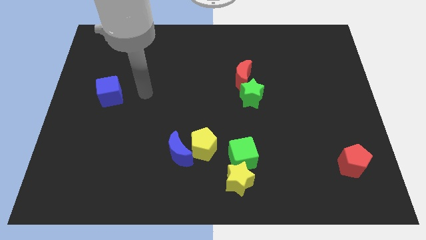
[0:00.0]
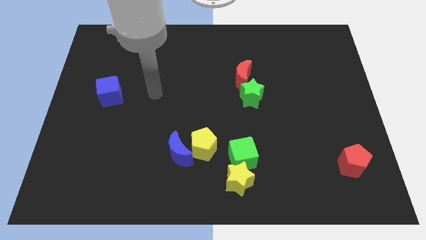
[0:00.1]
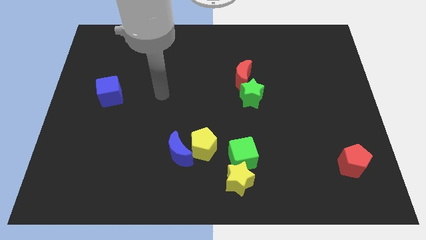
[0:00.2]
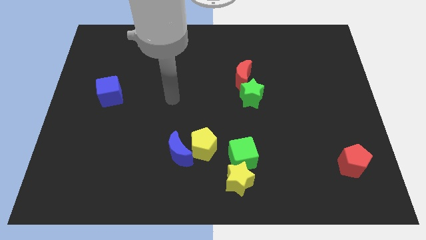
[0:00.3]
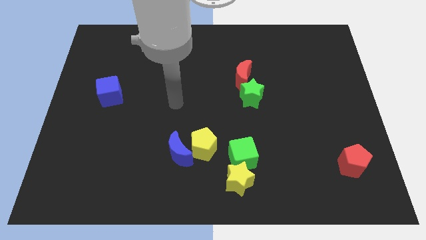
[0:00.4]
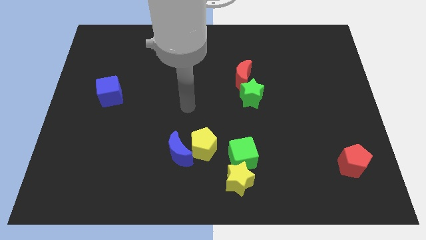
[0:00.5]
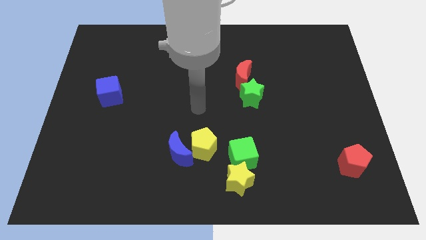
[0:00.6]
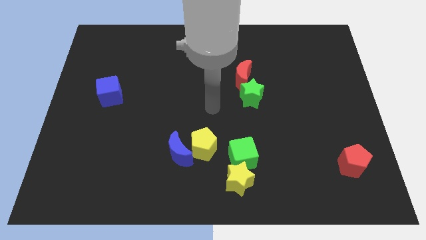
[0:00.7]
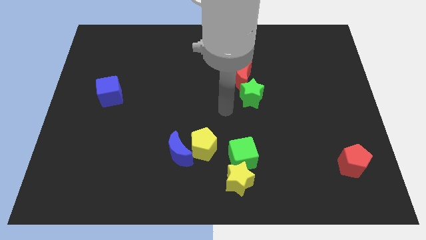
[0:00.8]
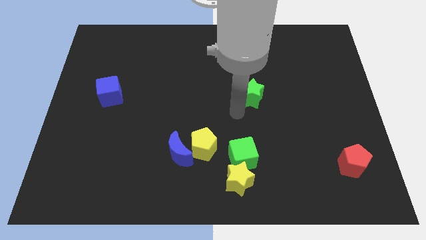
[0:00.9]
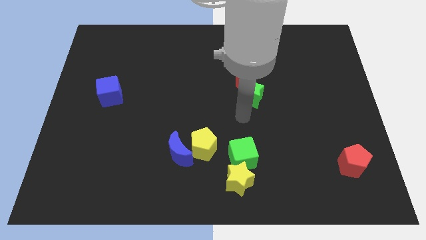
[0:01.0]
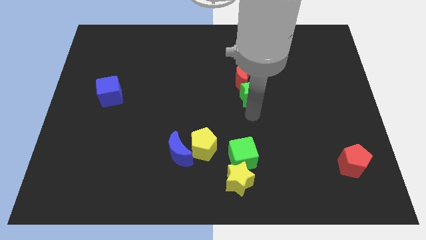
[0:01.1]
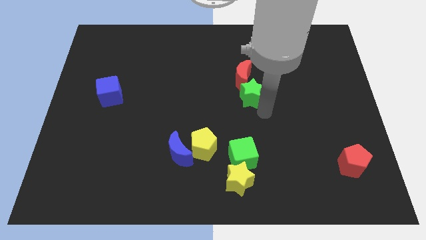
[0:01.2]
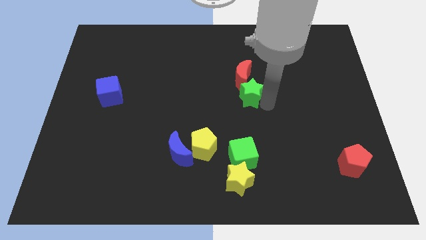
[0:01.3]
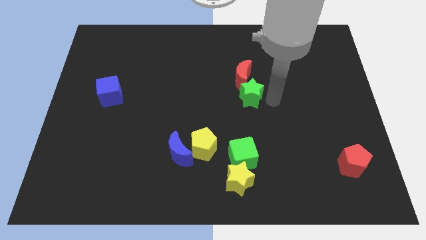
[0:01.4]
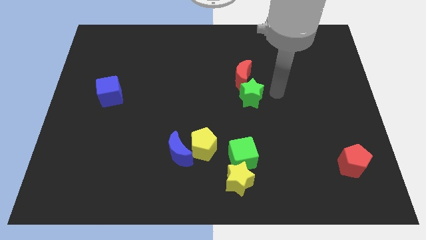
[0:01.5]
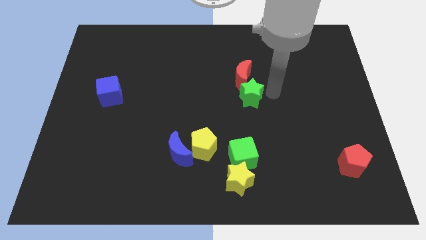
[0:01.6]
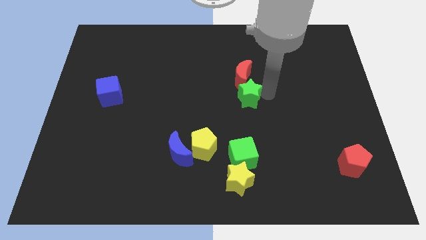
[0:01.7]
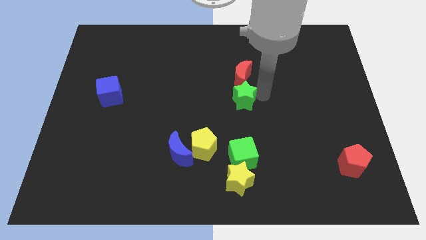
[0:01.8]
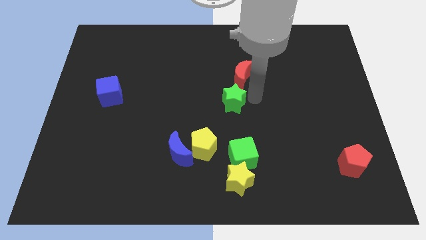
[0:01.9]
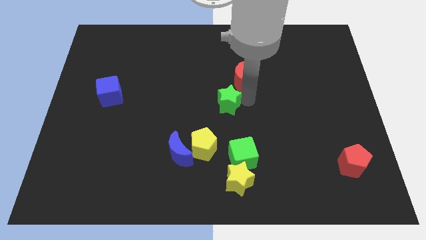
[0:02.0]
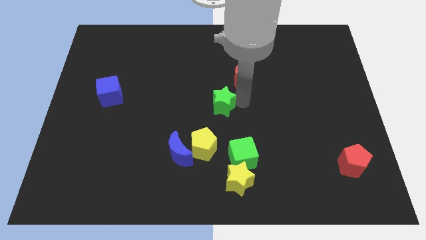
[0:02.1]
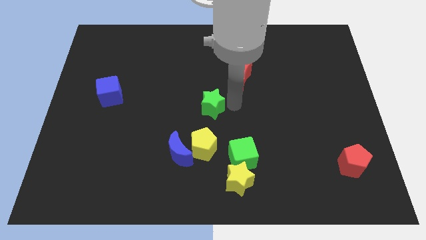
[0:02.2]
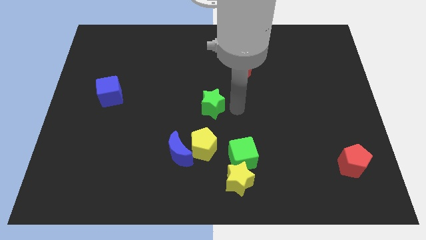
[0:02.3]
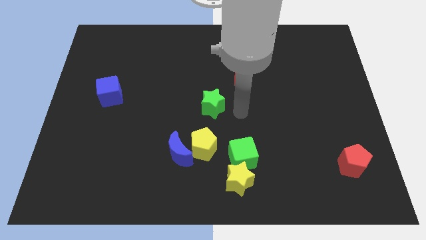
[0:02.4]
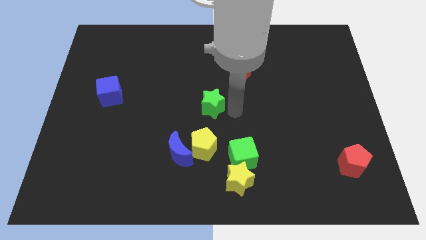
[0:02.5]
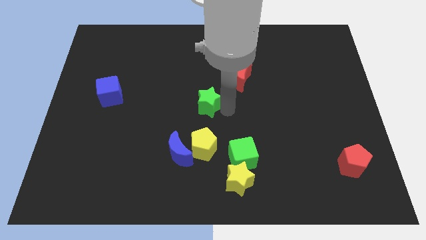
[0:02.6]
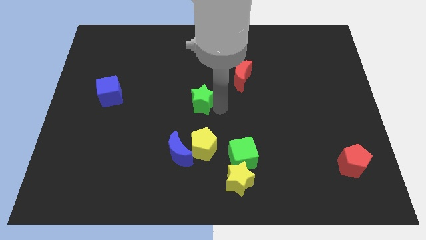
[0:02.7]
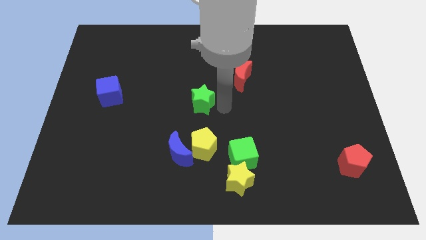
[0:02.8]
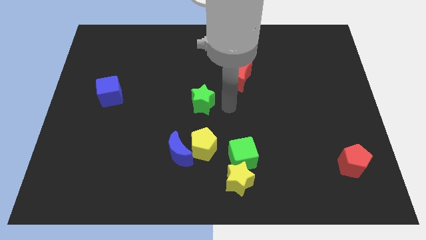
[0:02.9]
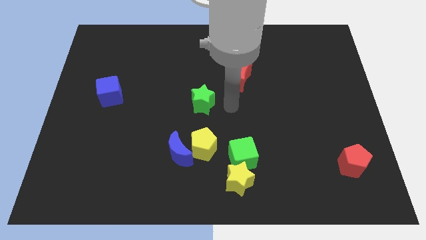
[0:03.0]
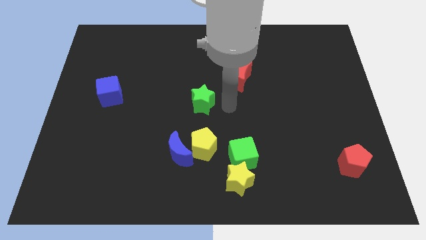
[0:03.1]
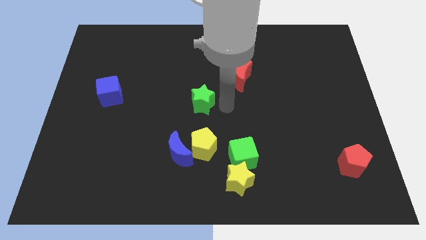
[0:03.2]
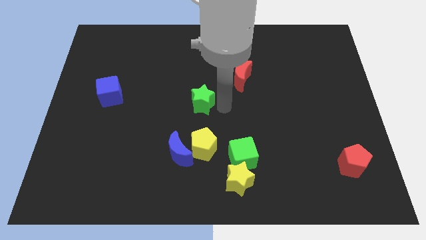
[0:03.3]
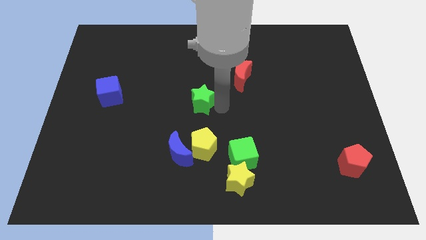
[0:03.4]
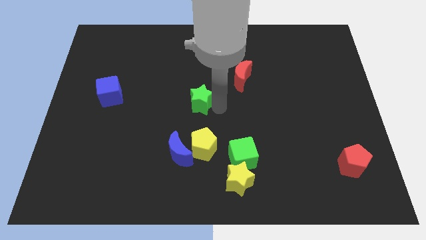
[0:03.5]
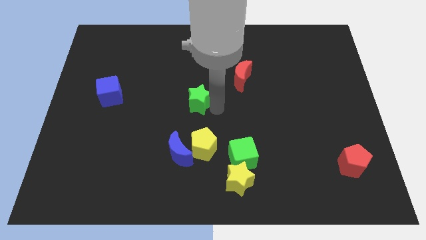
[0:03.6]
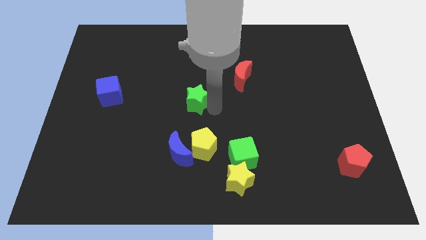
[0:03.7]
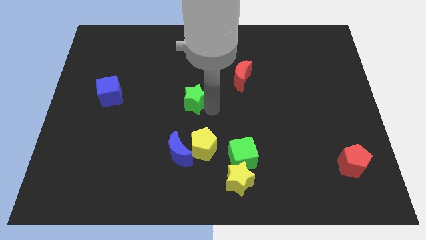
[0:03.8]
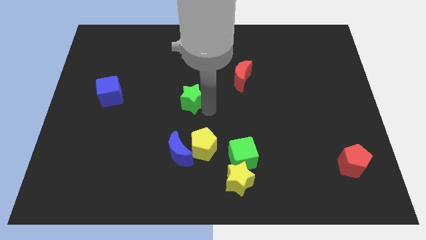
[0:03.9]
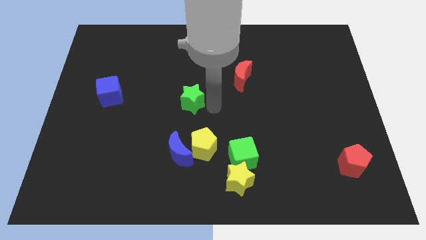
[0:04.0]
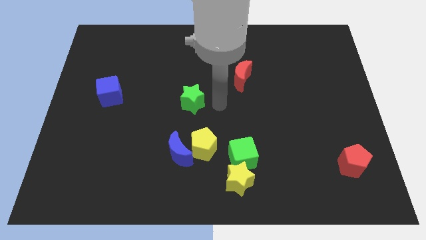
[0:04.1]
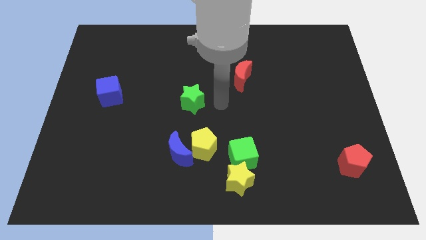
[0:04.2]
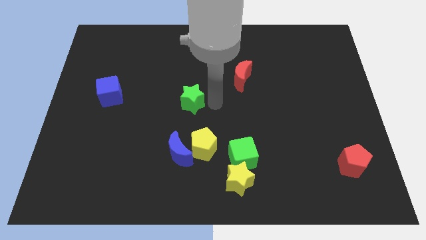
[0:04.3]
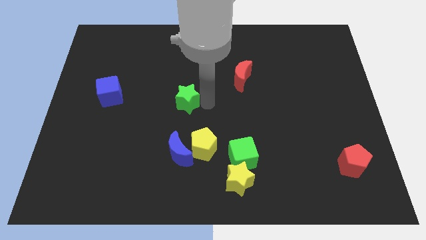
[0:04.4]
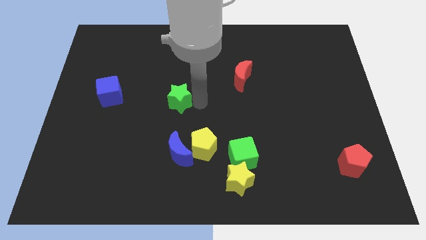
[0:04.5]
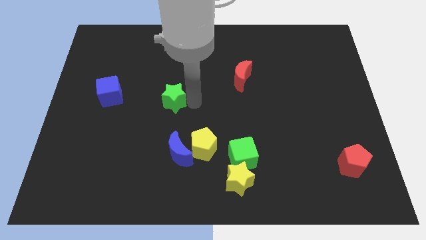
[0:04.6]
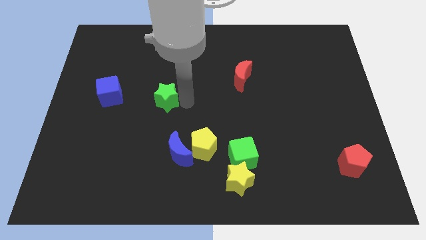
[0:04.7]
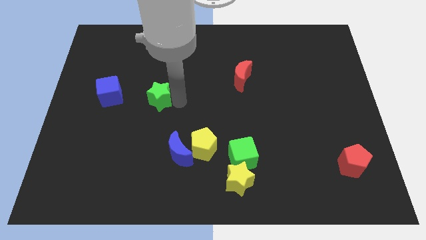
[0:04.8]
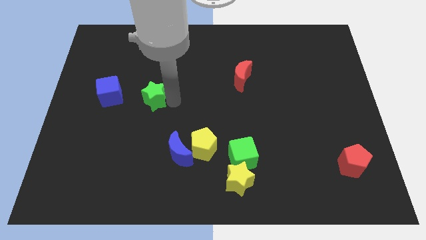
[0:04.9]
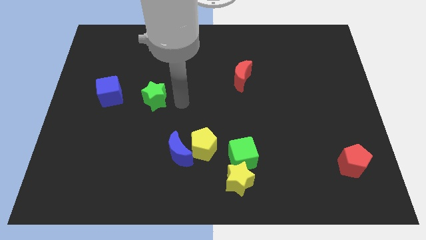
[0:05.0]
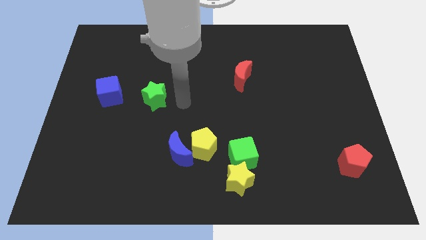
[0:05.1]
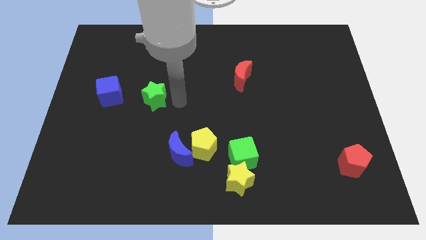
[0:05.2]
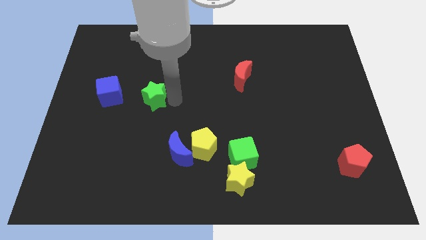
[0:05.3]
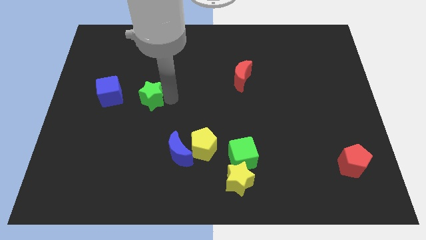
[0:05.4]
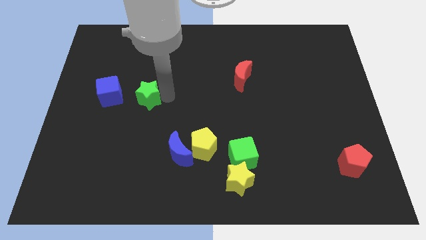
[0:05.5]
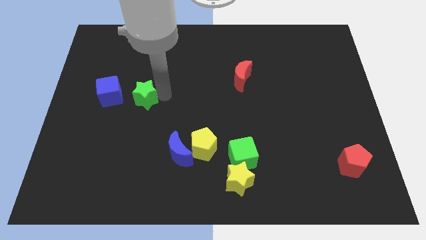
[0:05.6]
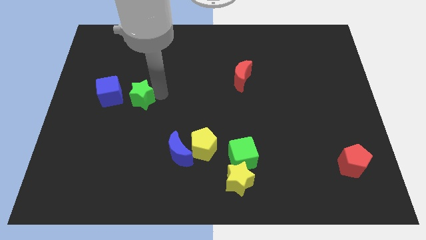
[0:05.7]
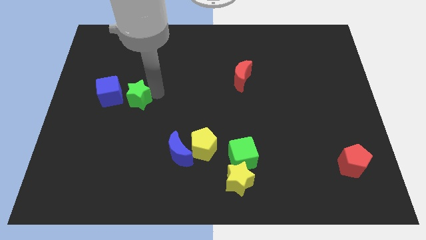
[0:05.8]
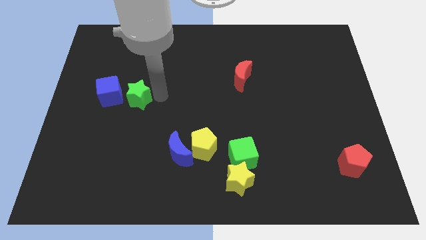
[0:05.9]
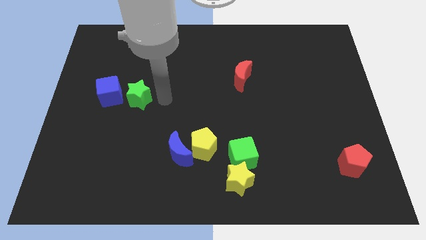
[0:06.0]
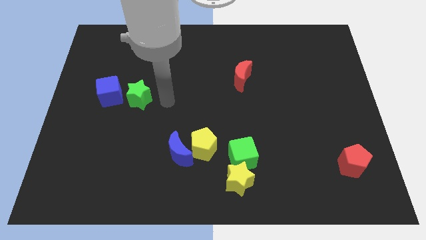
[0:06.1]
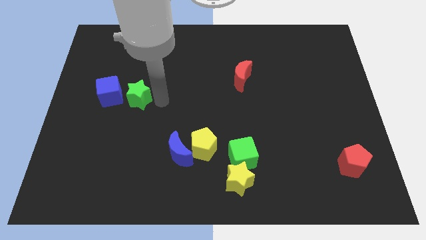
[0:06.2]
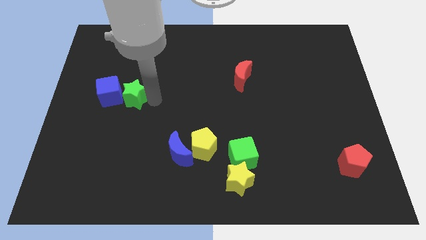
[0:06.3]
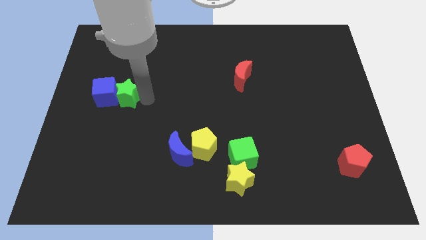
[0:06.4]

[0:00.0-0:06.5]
put the green star next to the blue cube

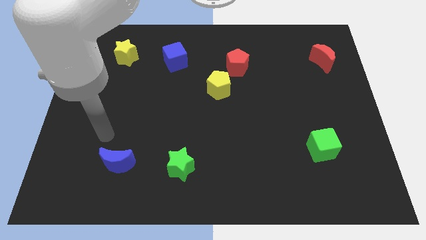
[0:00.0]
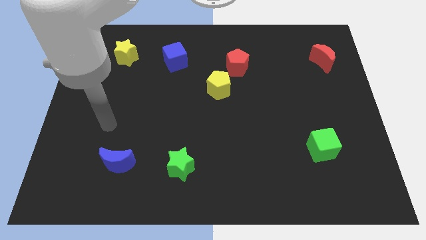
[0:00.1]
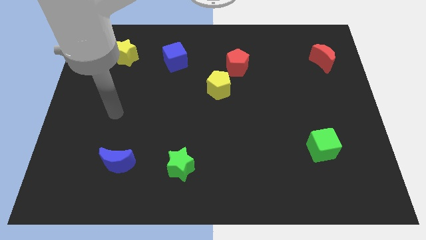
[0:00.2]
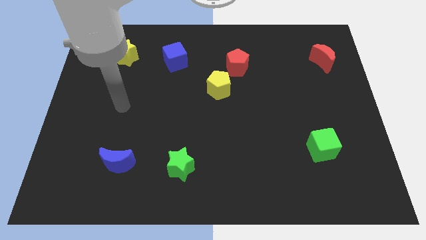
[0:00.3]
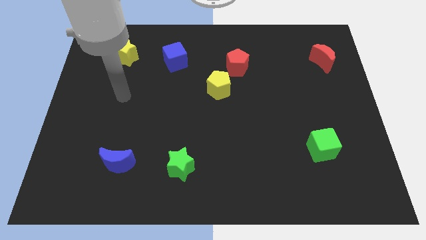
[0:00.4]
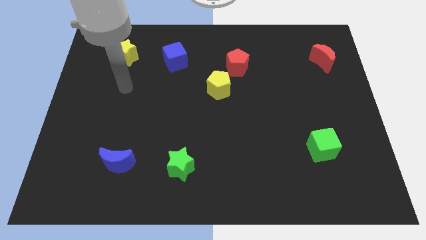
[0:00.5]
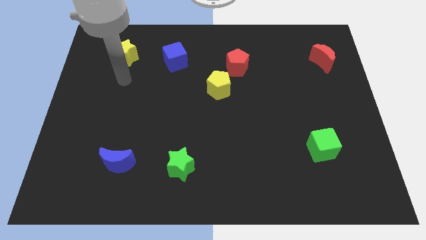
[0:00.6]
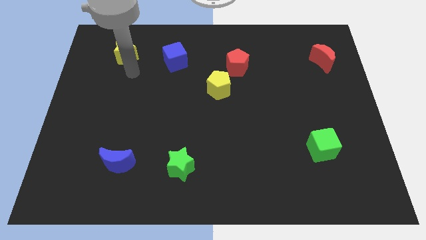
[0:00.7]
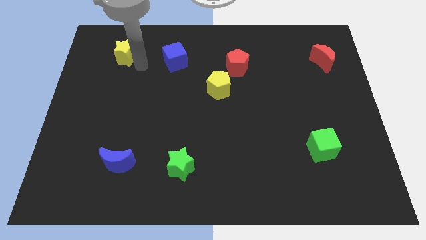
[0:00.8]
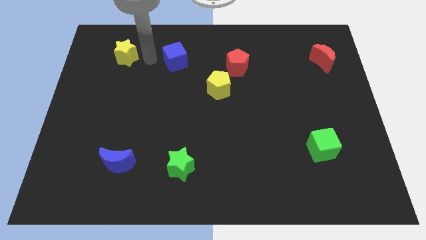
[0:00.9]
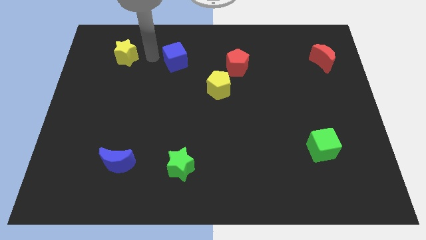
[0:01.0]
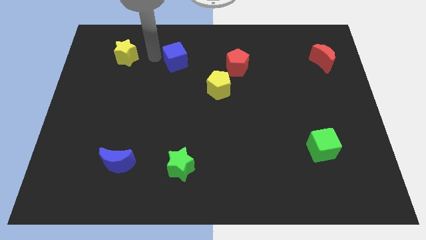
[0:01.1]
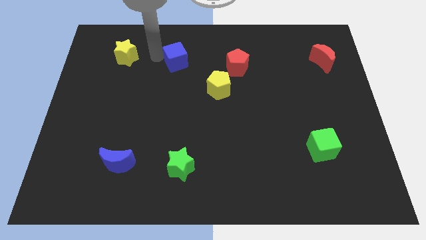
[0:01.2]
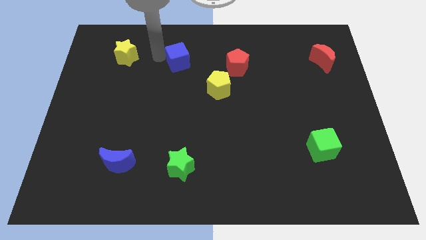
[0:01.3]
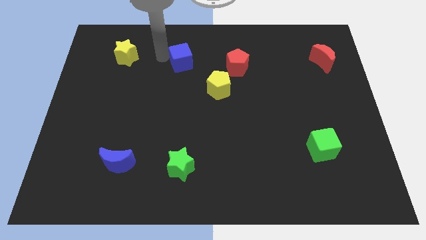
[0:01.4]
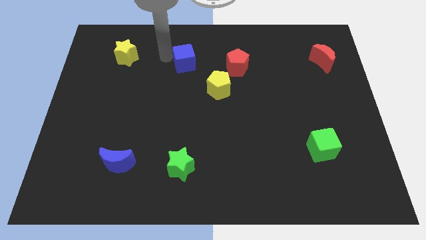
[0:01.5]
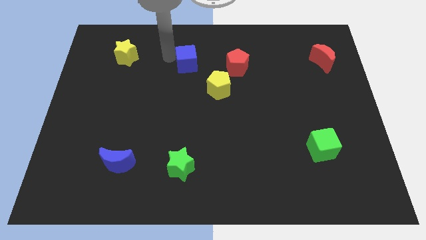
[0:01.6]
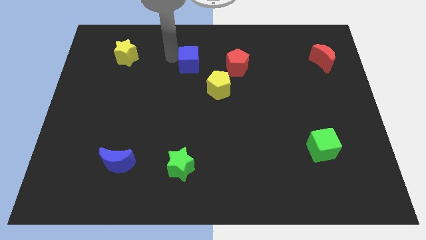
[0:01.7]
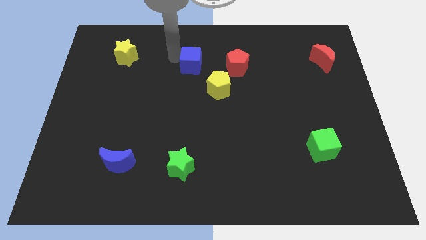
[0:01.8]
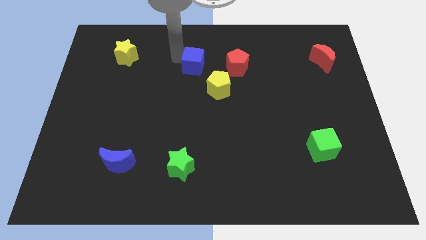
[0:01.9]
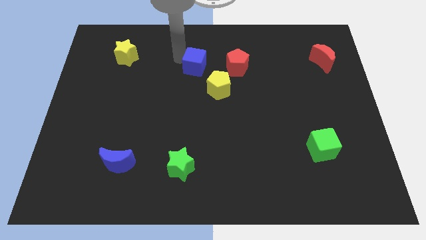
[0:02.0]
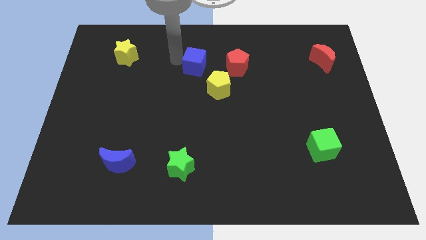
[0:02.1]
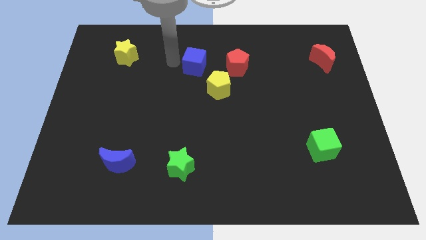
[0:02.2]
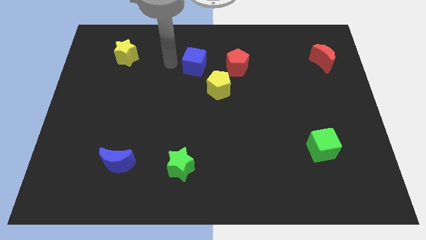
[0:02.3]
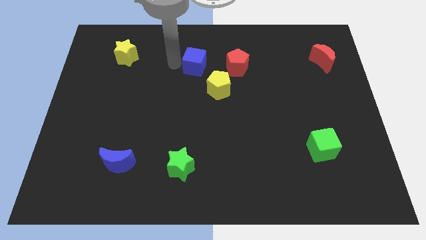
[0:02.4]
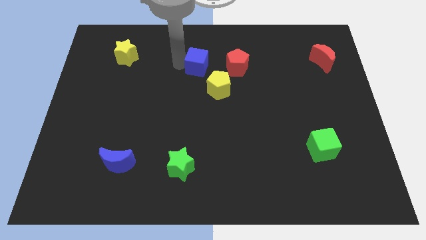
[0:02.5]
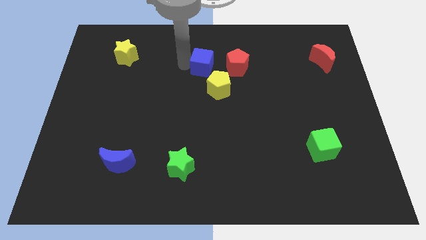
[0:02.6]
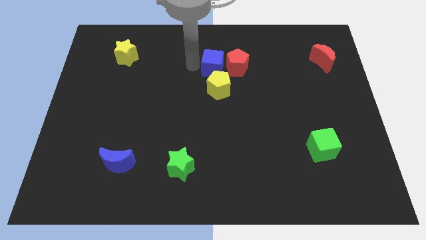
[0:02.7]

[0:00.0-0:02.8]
move the blue cube to the red pentagon
